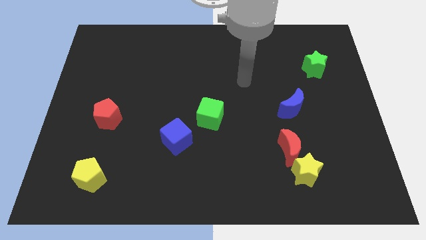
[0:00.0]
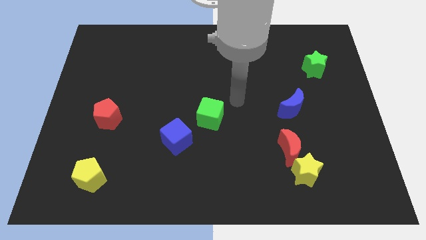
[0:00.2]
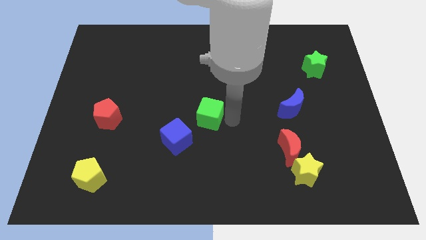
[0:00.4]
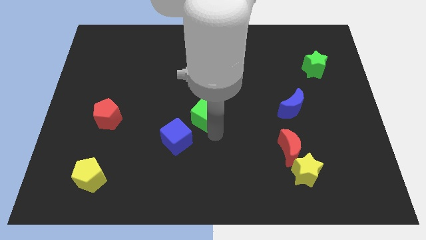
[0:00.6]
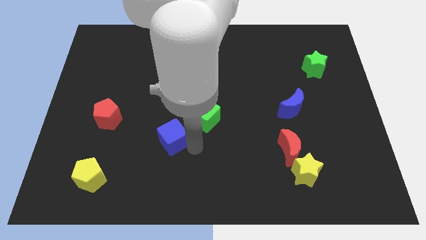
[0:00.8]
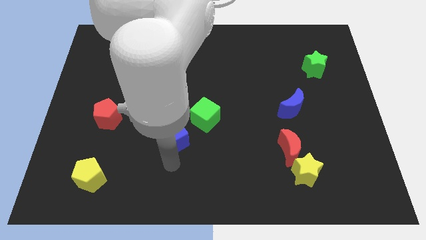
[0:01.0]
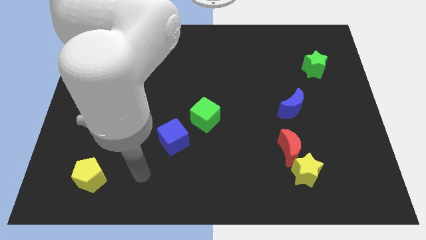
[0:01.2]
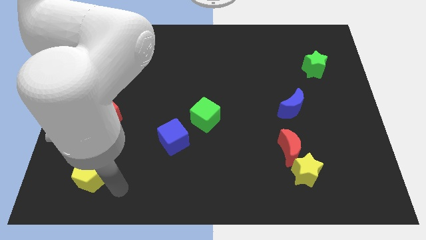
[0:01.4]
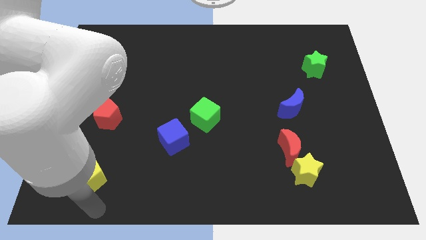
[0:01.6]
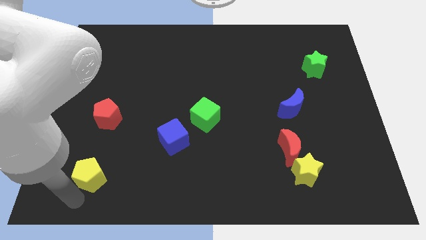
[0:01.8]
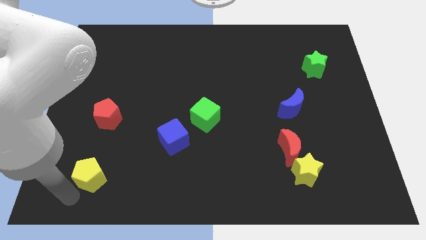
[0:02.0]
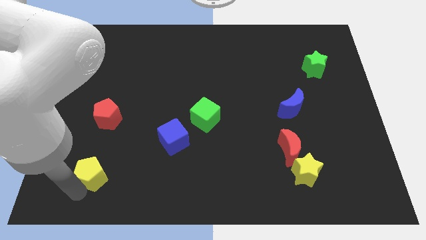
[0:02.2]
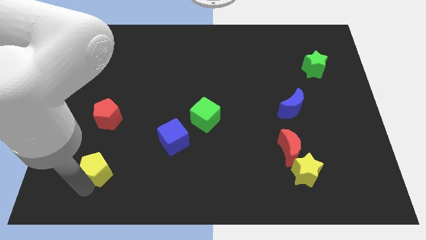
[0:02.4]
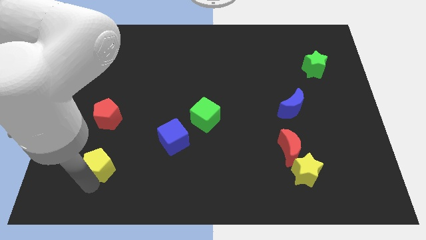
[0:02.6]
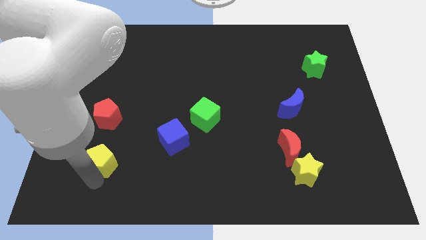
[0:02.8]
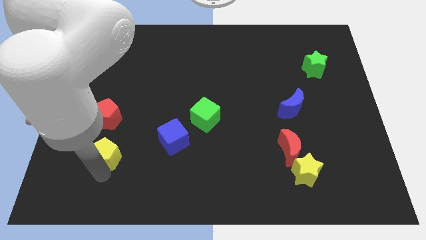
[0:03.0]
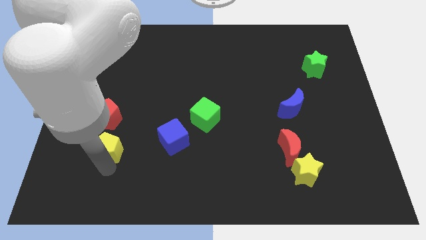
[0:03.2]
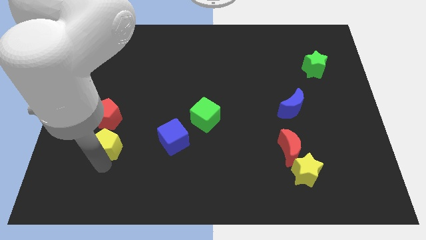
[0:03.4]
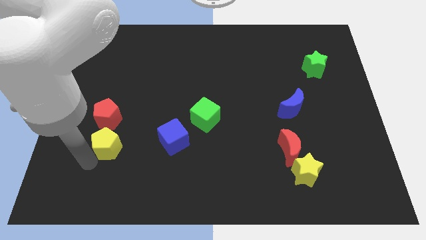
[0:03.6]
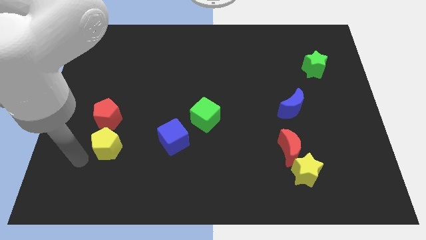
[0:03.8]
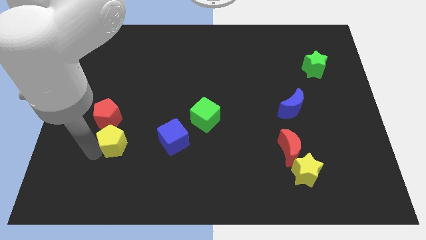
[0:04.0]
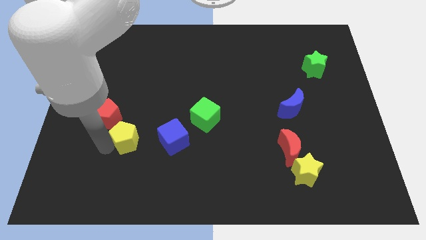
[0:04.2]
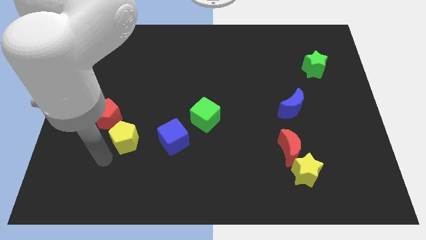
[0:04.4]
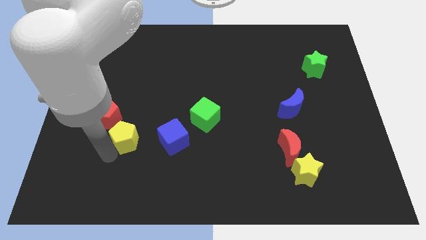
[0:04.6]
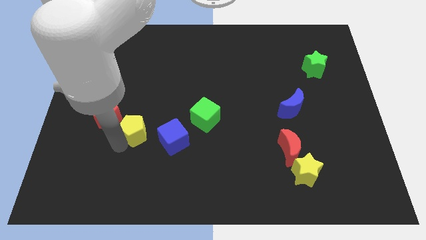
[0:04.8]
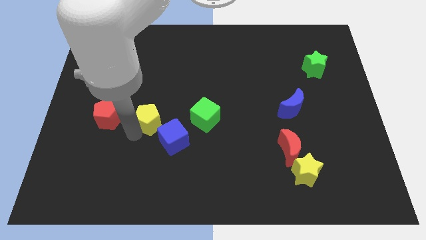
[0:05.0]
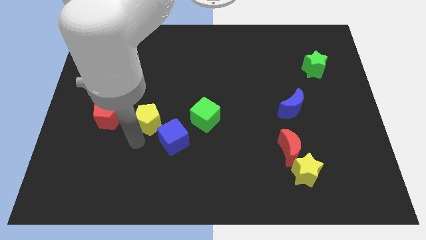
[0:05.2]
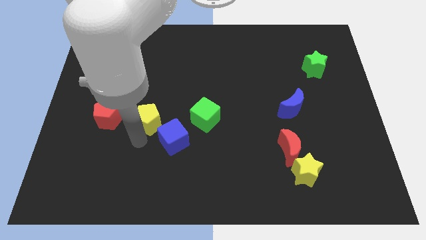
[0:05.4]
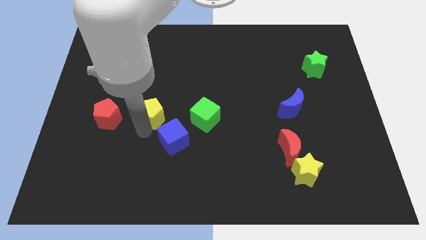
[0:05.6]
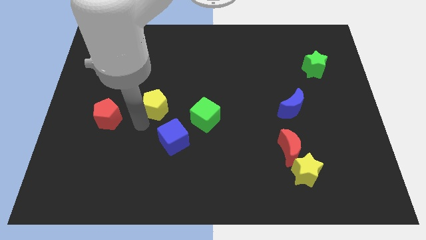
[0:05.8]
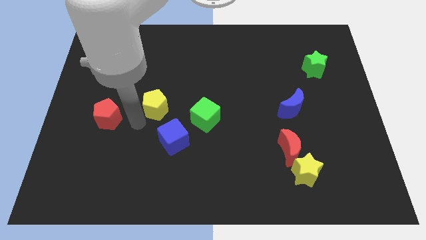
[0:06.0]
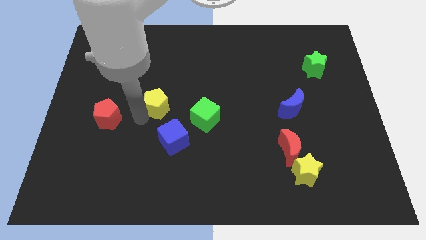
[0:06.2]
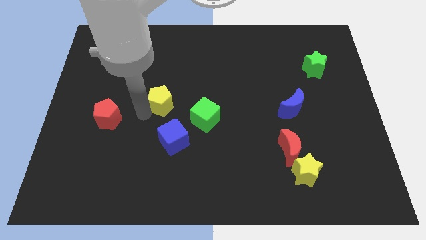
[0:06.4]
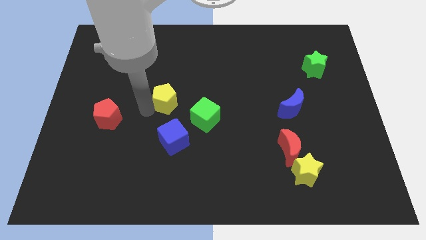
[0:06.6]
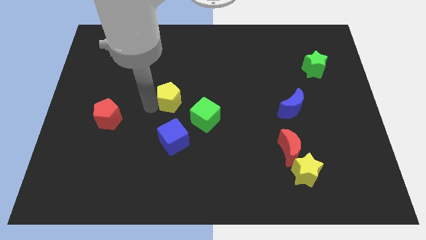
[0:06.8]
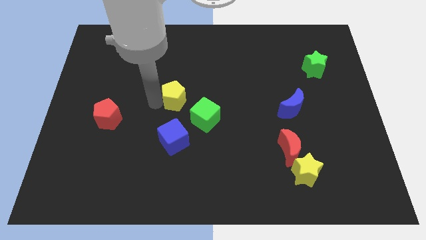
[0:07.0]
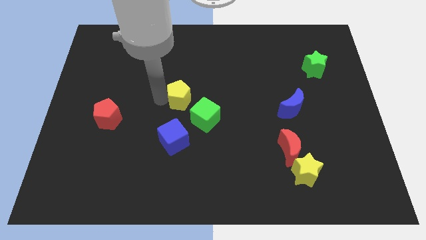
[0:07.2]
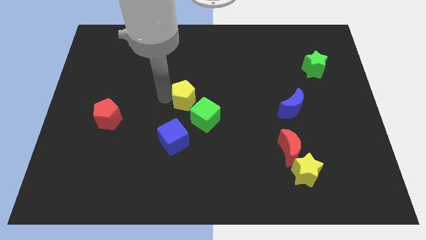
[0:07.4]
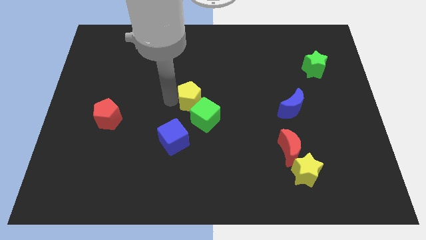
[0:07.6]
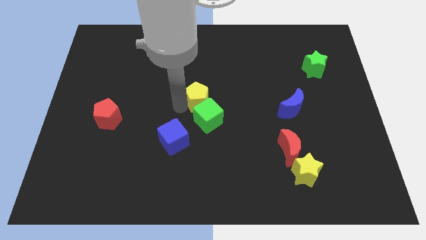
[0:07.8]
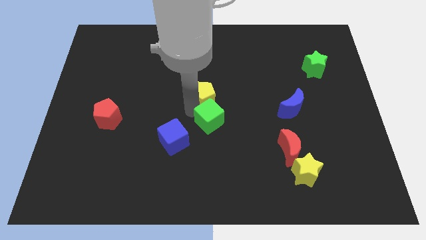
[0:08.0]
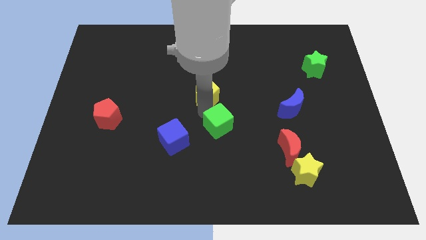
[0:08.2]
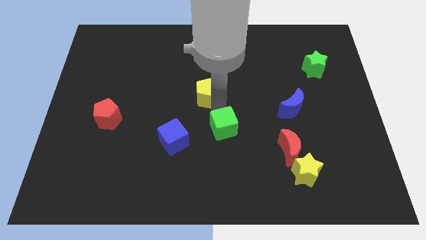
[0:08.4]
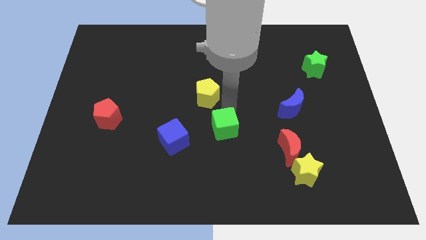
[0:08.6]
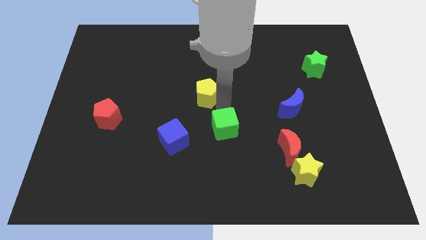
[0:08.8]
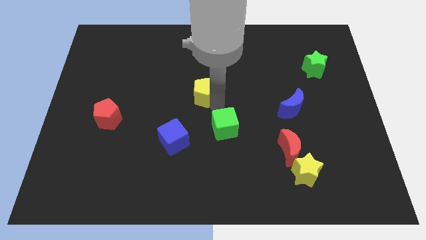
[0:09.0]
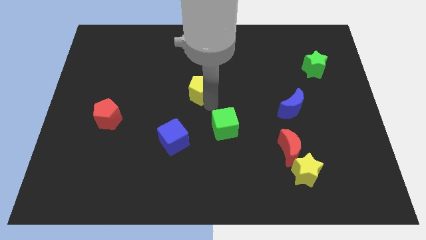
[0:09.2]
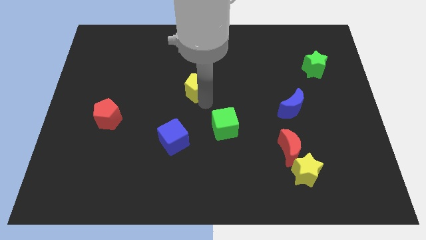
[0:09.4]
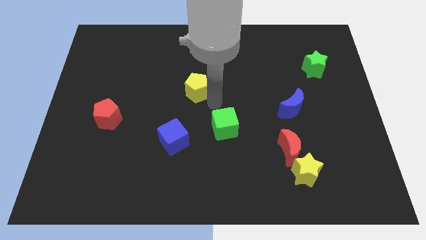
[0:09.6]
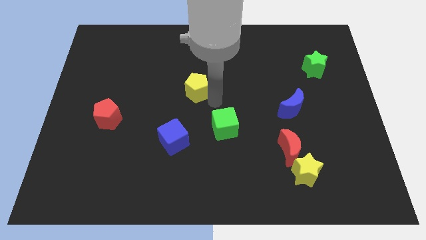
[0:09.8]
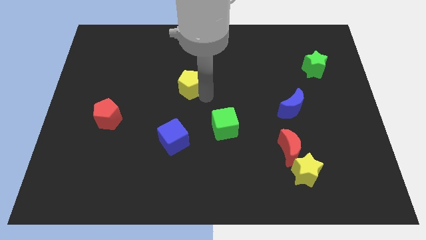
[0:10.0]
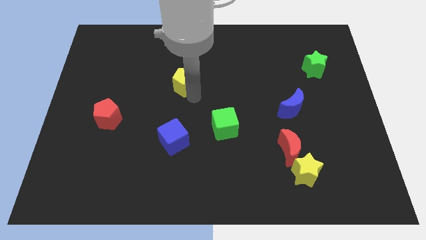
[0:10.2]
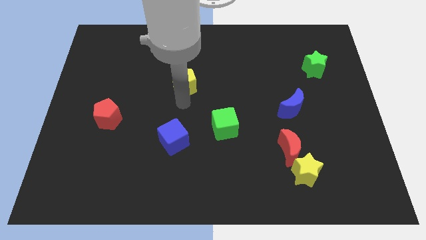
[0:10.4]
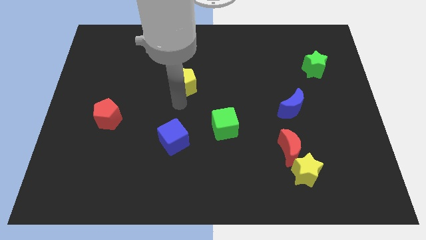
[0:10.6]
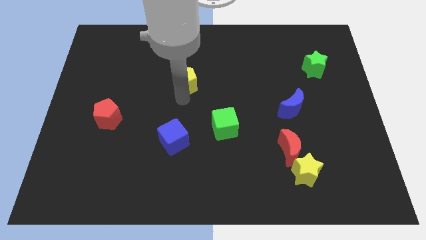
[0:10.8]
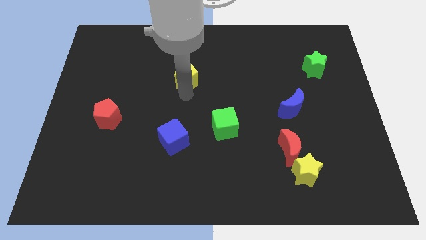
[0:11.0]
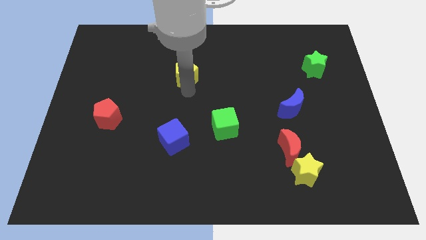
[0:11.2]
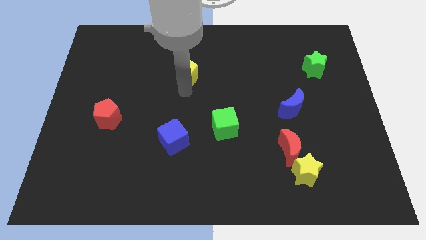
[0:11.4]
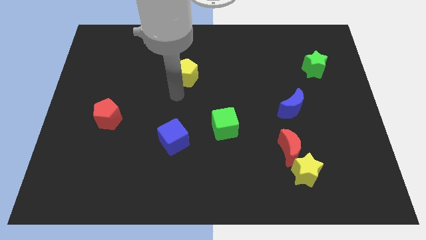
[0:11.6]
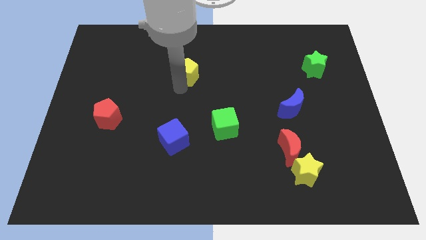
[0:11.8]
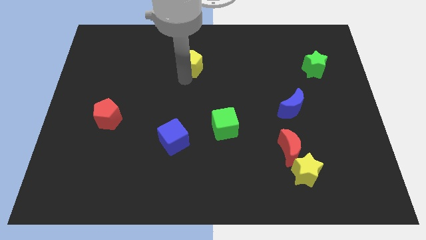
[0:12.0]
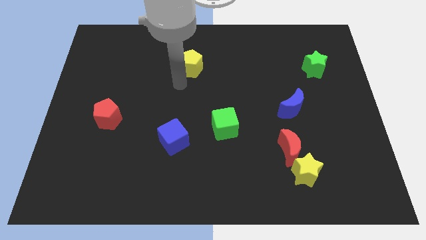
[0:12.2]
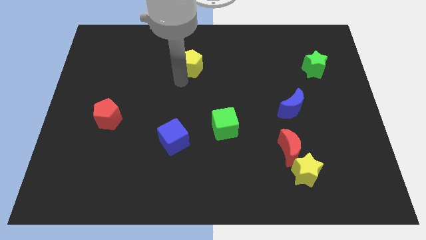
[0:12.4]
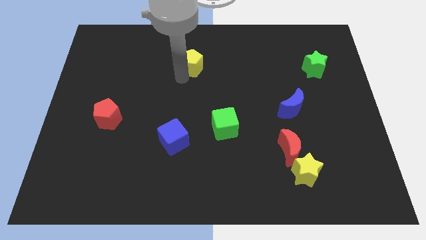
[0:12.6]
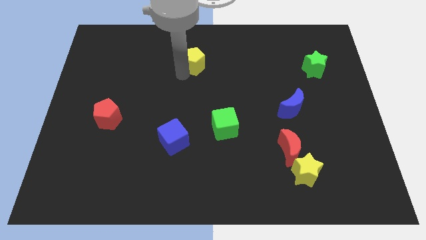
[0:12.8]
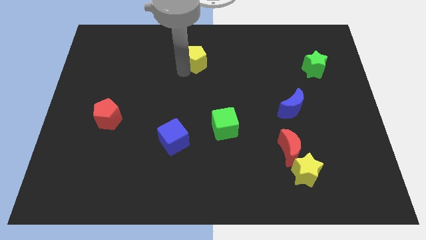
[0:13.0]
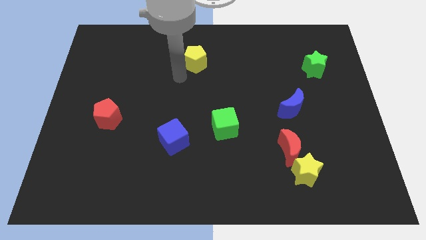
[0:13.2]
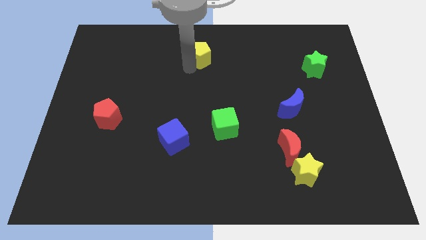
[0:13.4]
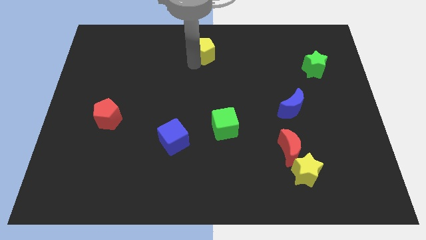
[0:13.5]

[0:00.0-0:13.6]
push the yellow pentagon to the top side

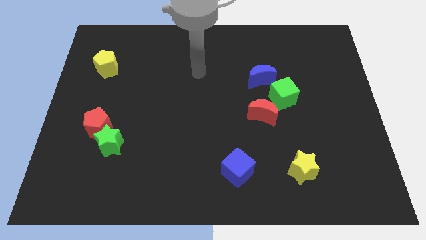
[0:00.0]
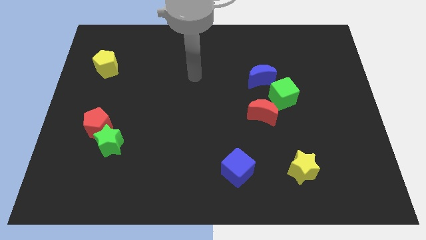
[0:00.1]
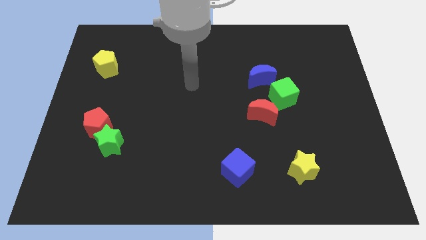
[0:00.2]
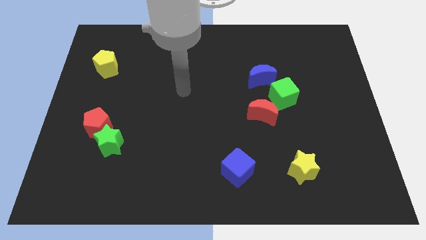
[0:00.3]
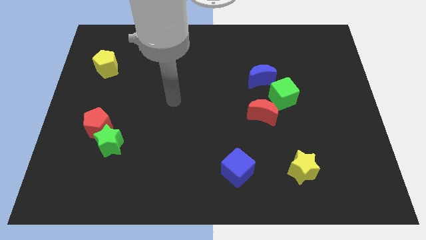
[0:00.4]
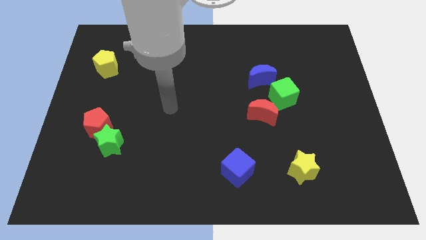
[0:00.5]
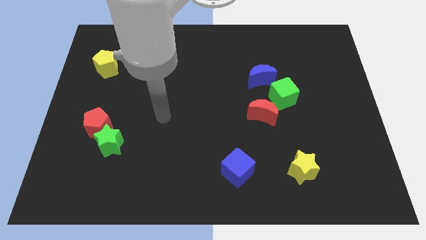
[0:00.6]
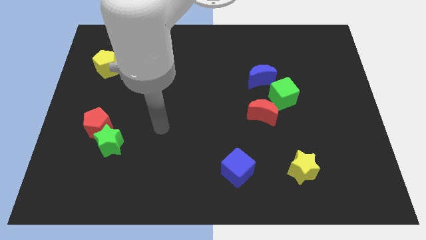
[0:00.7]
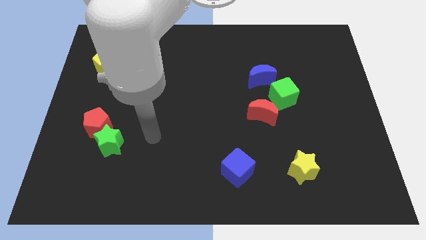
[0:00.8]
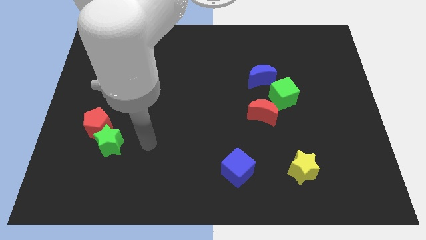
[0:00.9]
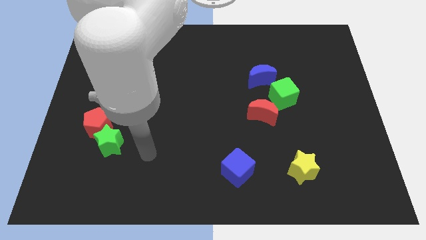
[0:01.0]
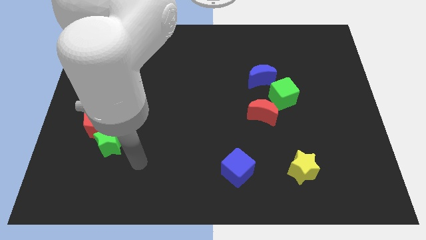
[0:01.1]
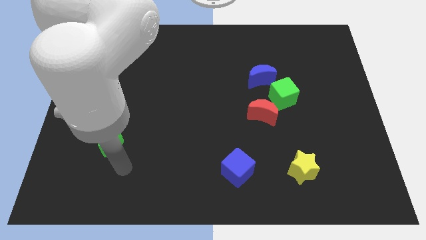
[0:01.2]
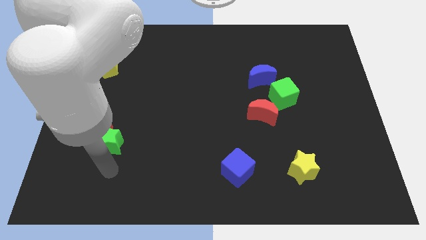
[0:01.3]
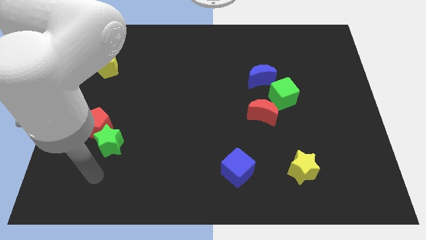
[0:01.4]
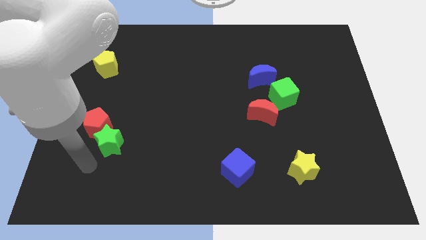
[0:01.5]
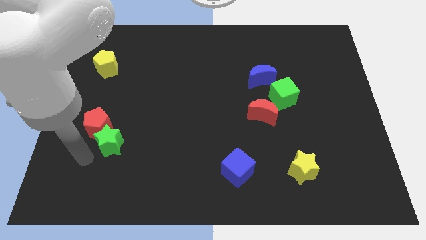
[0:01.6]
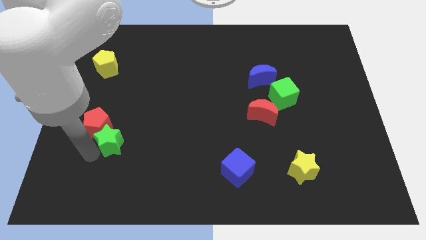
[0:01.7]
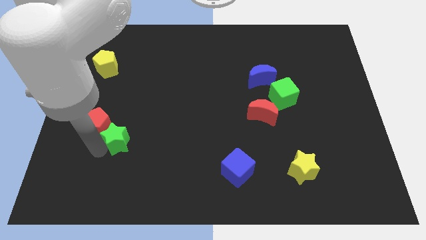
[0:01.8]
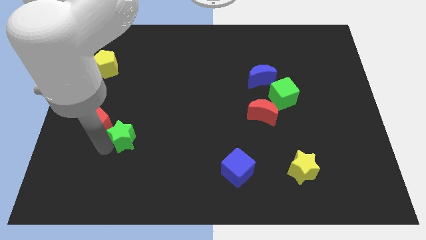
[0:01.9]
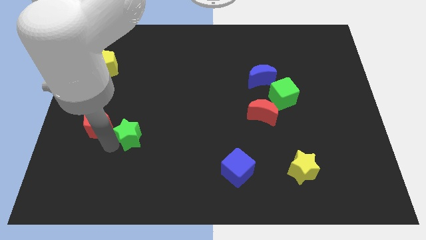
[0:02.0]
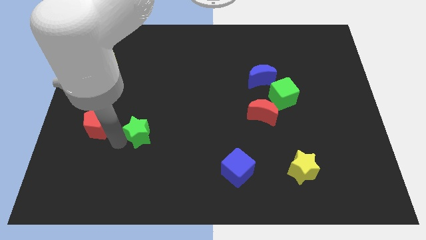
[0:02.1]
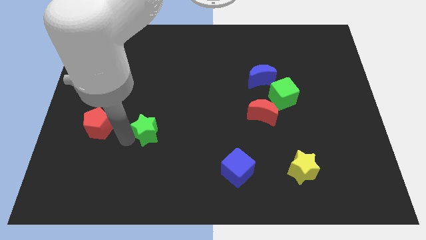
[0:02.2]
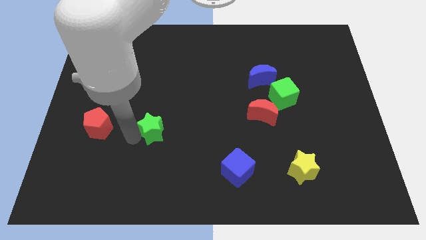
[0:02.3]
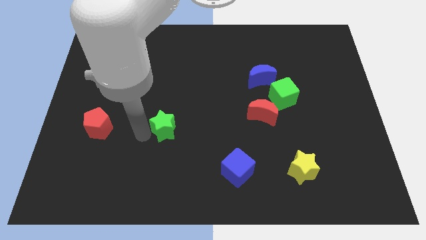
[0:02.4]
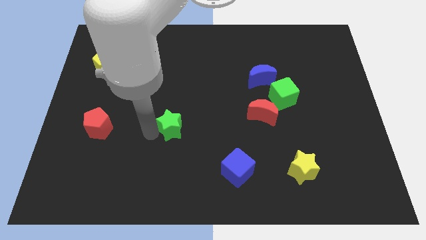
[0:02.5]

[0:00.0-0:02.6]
move the green star to the center of the board
